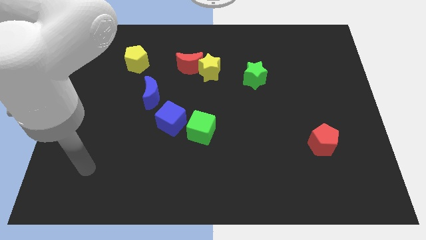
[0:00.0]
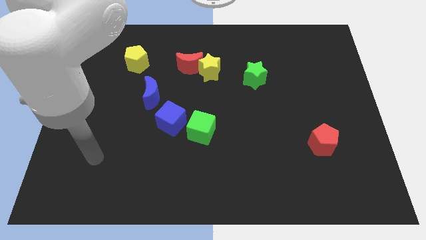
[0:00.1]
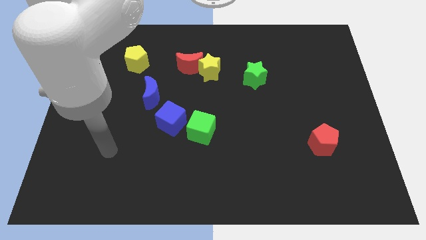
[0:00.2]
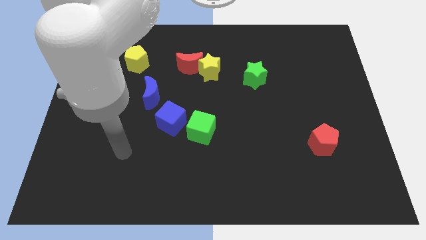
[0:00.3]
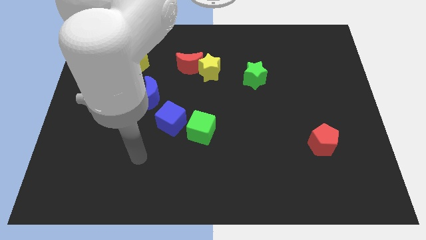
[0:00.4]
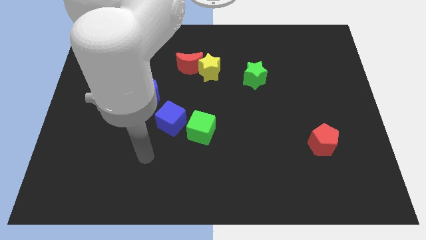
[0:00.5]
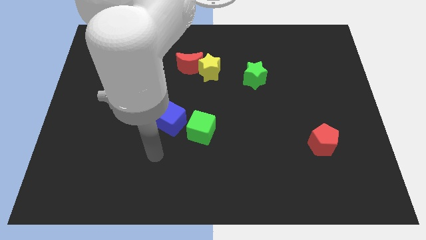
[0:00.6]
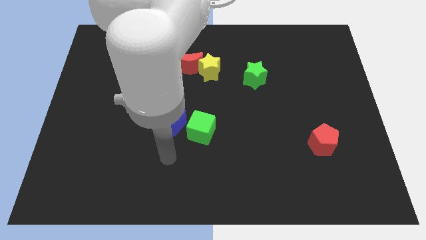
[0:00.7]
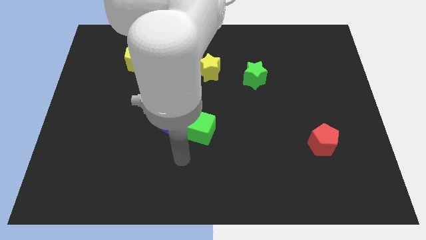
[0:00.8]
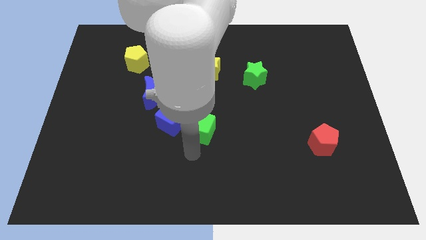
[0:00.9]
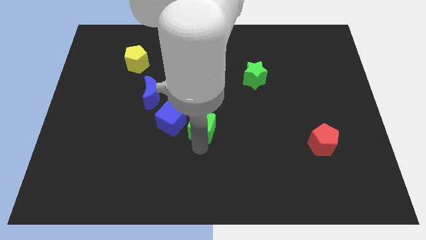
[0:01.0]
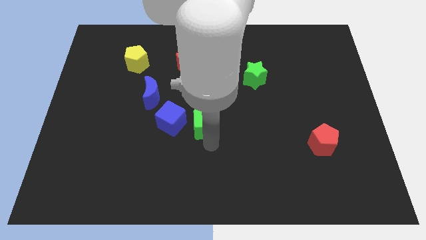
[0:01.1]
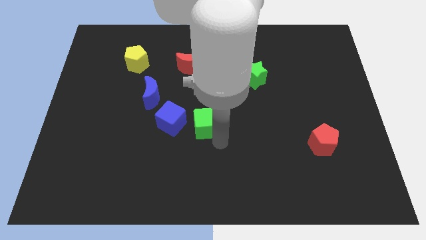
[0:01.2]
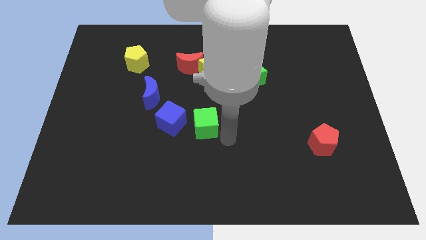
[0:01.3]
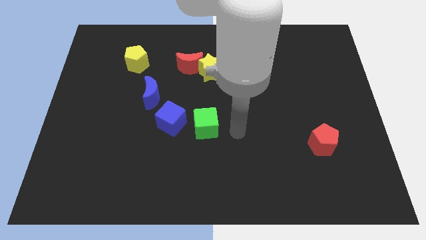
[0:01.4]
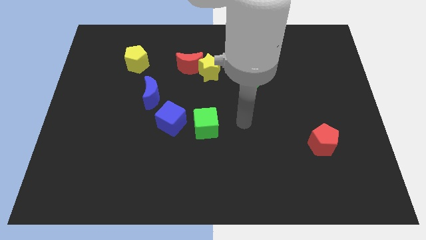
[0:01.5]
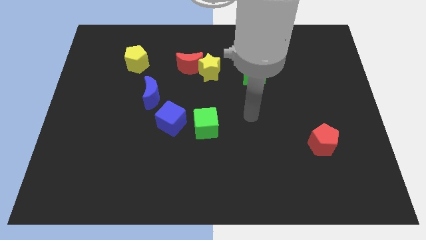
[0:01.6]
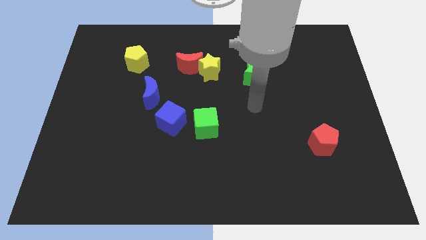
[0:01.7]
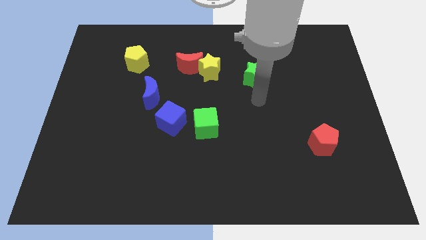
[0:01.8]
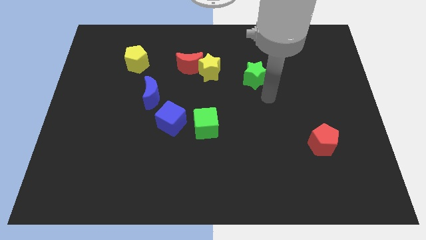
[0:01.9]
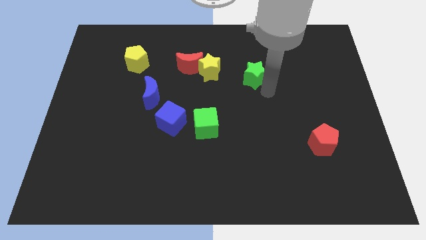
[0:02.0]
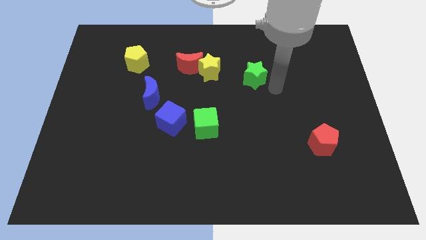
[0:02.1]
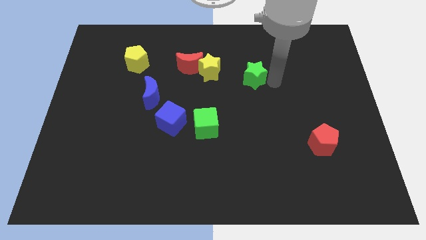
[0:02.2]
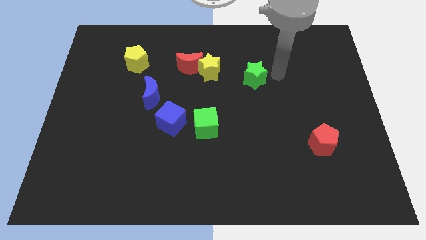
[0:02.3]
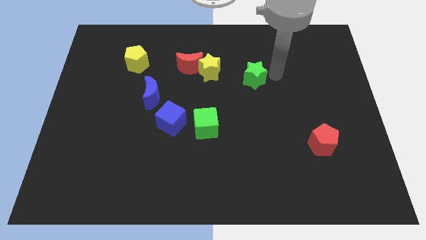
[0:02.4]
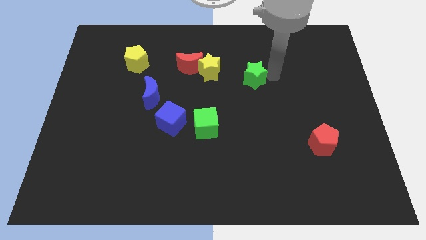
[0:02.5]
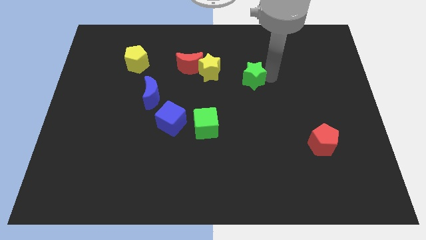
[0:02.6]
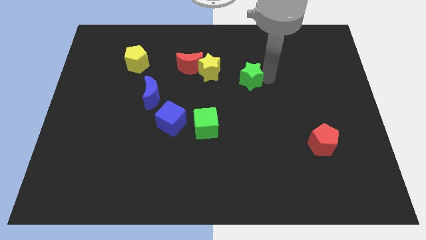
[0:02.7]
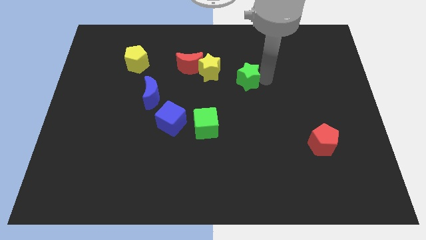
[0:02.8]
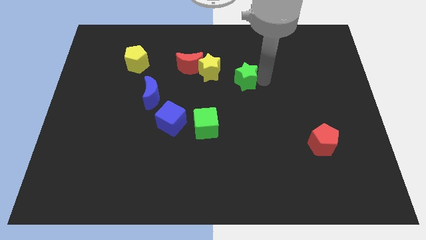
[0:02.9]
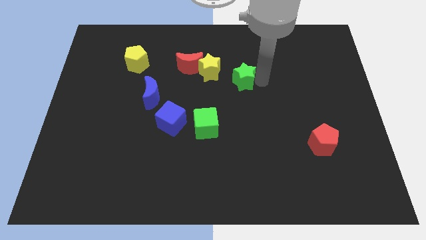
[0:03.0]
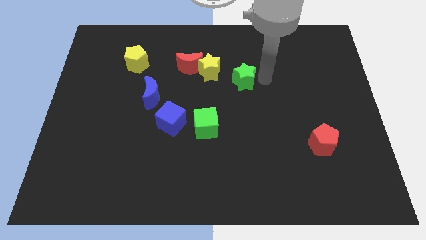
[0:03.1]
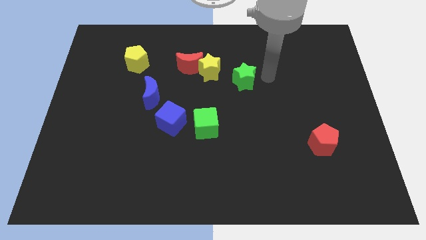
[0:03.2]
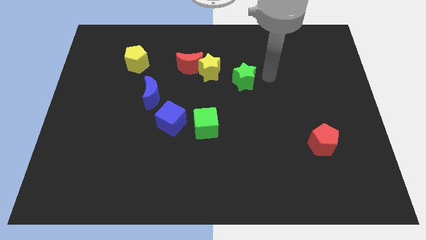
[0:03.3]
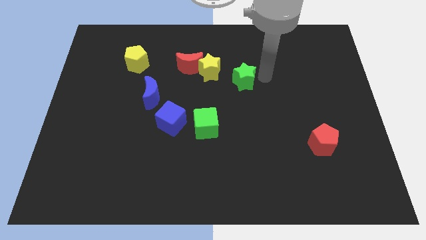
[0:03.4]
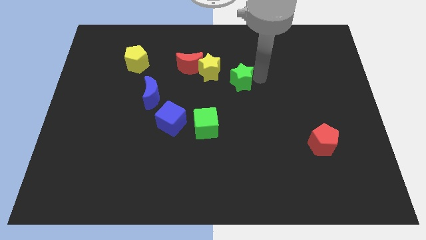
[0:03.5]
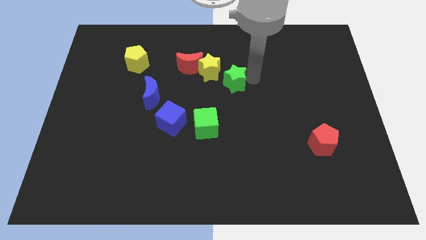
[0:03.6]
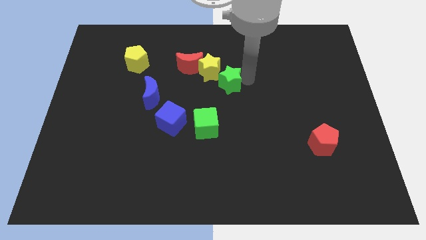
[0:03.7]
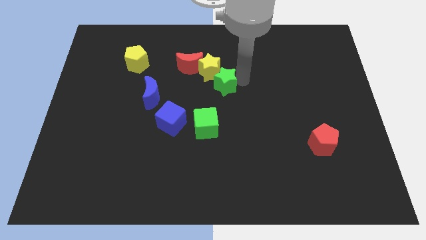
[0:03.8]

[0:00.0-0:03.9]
push the green star somewhat left

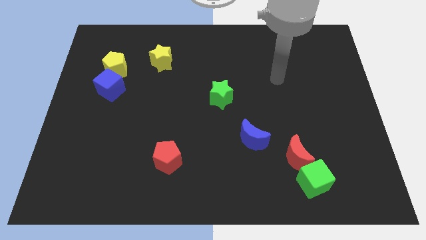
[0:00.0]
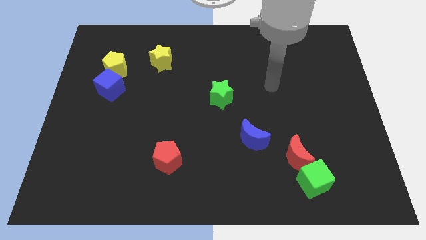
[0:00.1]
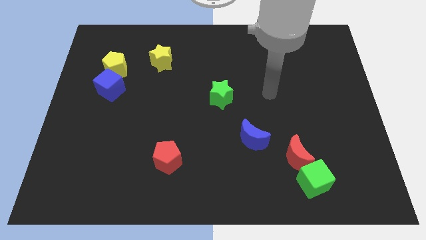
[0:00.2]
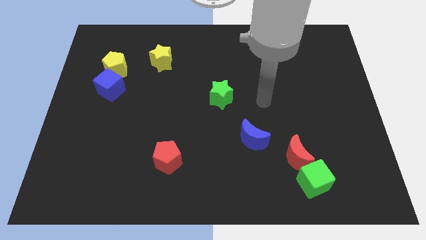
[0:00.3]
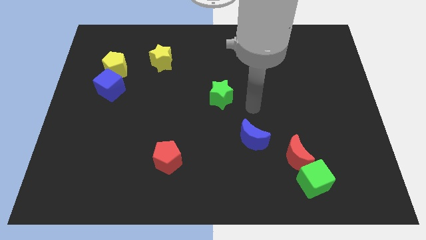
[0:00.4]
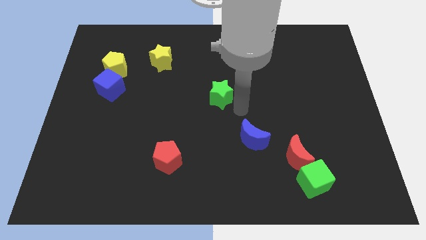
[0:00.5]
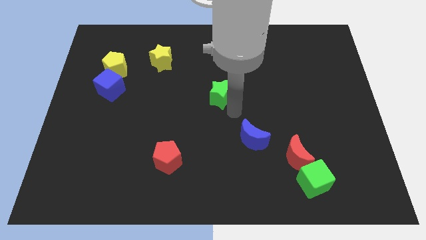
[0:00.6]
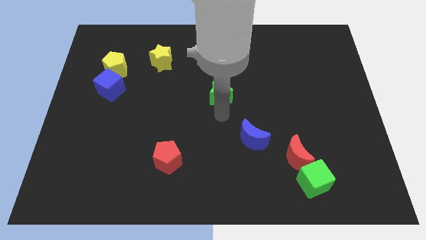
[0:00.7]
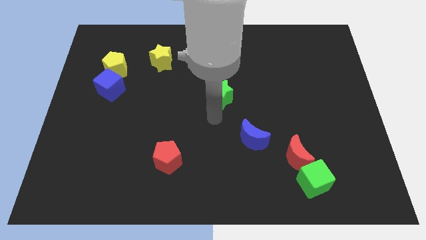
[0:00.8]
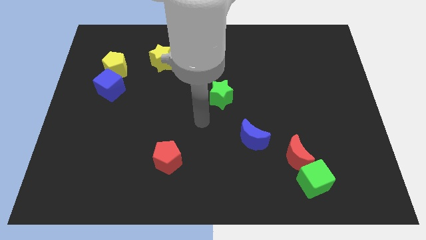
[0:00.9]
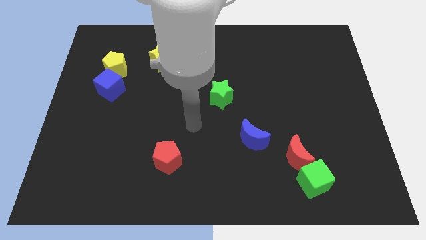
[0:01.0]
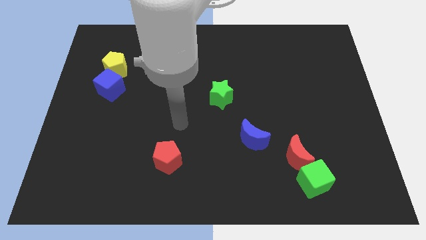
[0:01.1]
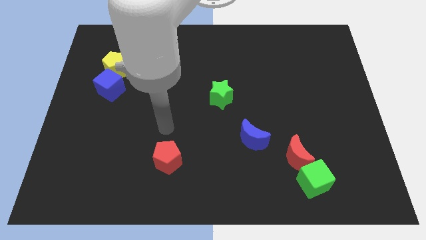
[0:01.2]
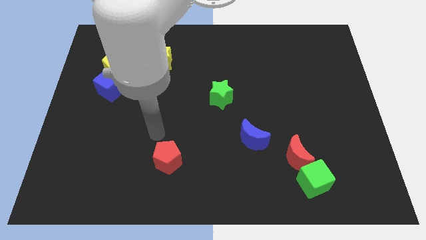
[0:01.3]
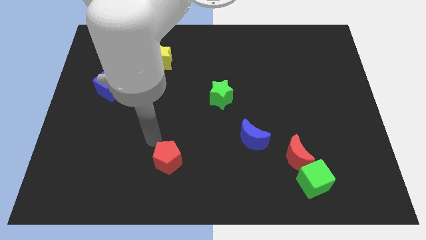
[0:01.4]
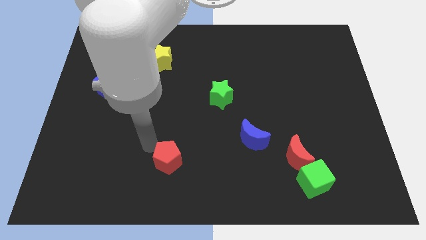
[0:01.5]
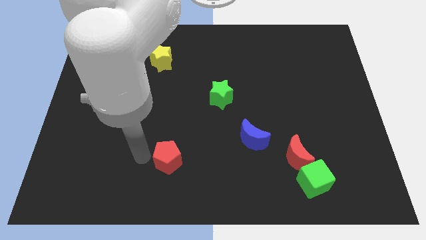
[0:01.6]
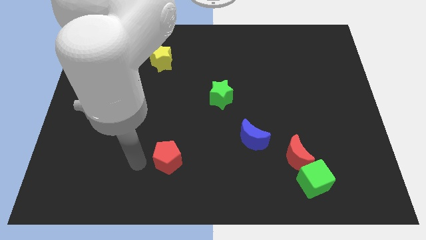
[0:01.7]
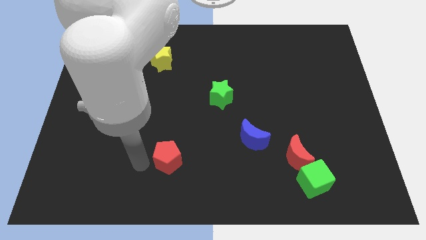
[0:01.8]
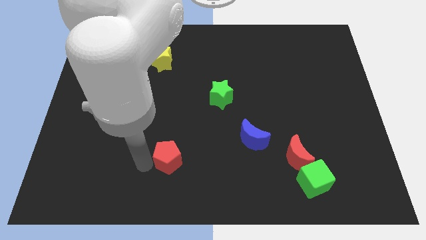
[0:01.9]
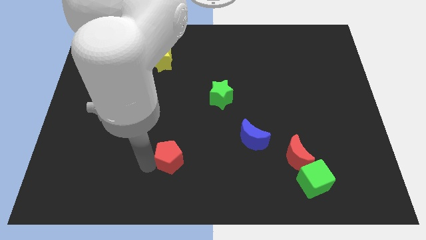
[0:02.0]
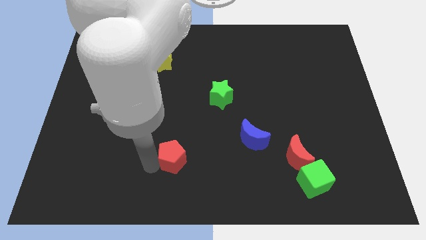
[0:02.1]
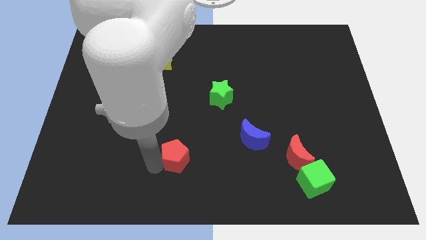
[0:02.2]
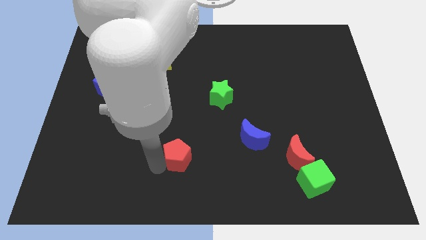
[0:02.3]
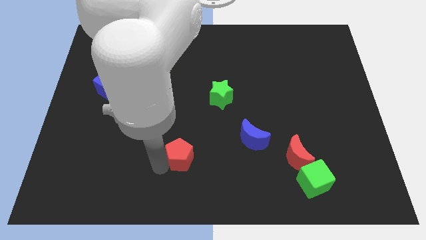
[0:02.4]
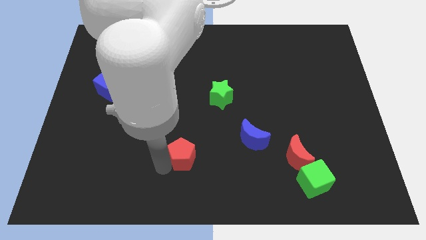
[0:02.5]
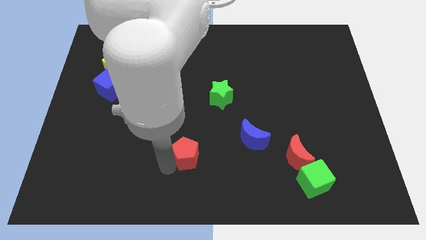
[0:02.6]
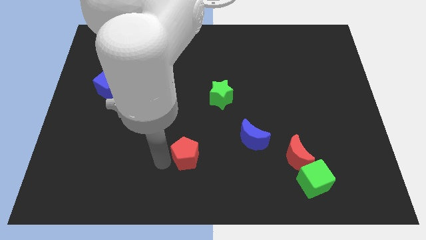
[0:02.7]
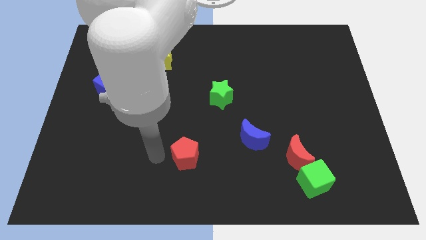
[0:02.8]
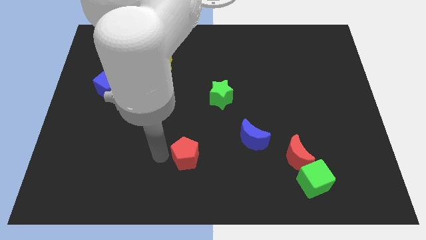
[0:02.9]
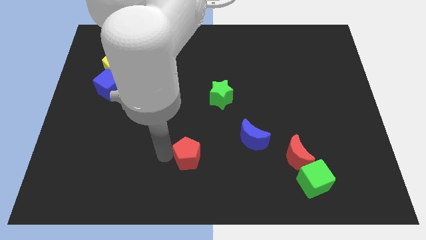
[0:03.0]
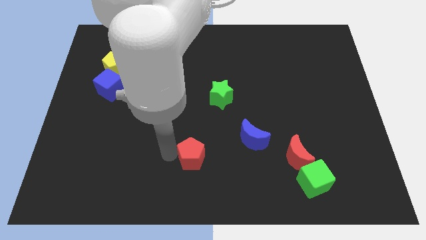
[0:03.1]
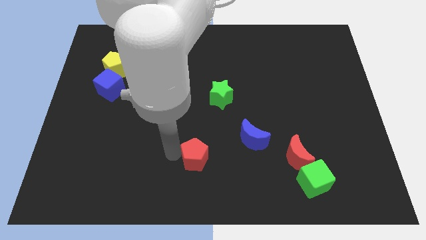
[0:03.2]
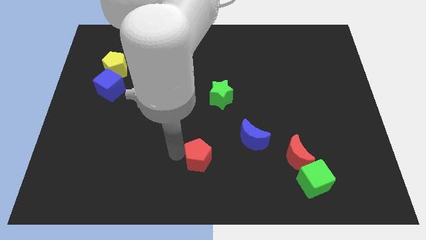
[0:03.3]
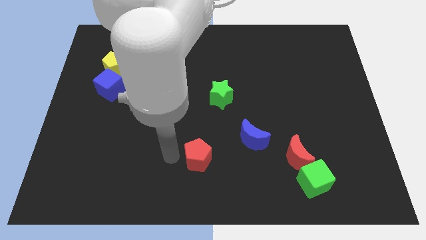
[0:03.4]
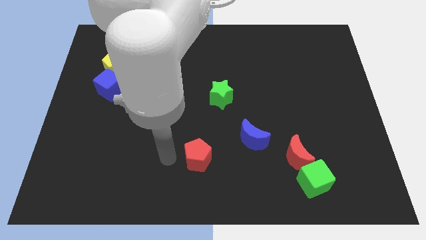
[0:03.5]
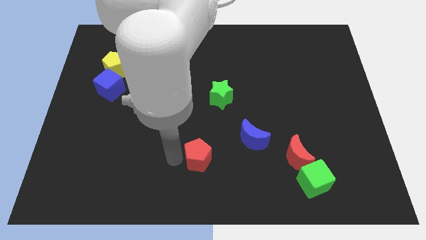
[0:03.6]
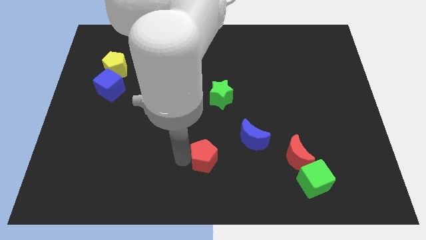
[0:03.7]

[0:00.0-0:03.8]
slide the red pentagon slightly to the right

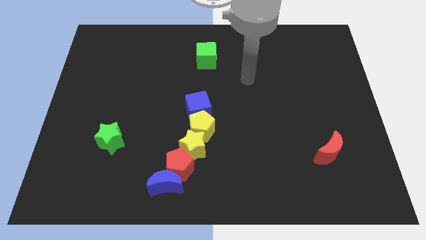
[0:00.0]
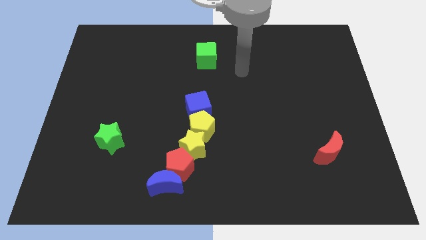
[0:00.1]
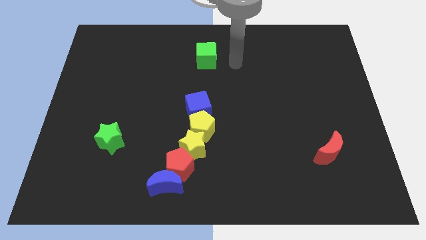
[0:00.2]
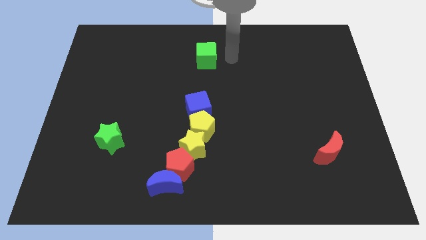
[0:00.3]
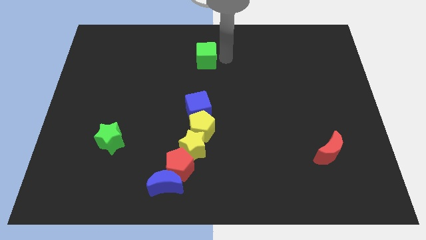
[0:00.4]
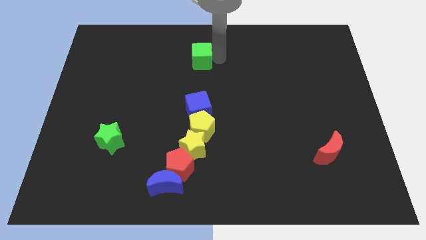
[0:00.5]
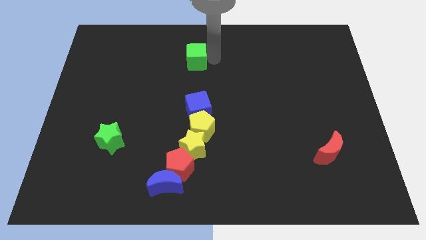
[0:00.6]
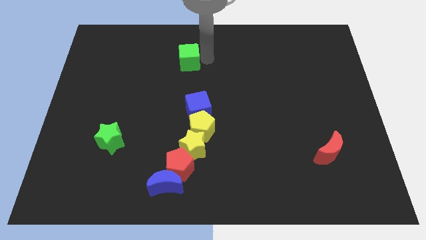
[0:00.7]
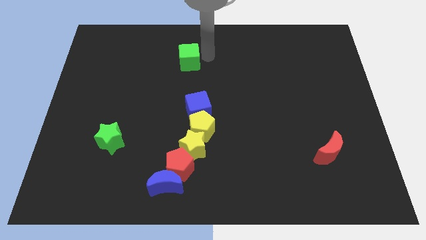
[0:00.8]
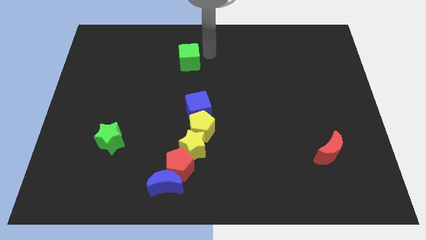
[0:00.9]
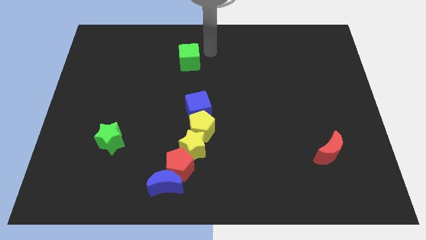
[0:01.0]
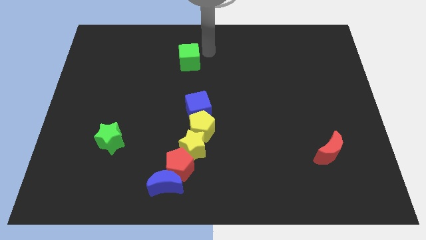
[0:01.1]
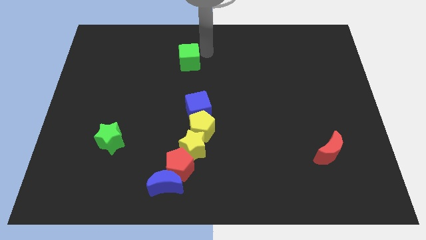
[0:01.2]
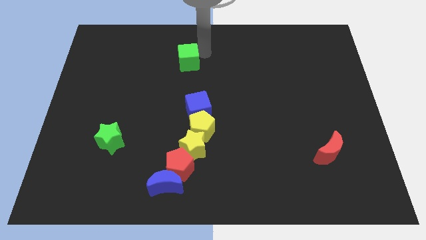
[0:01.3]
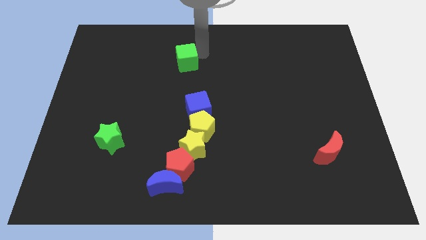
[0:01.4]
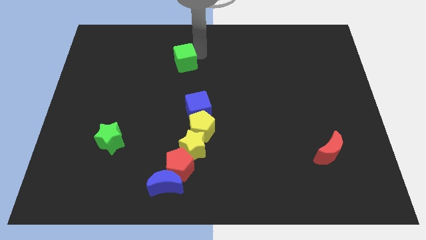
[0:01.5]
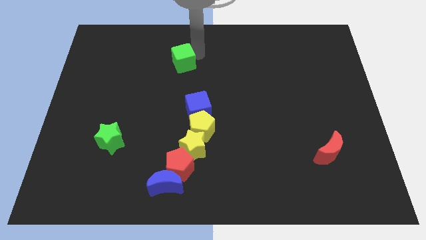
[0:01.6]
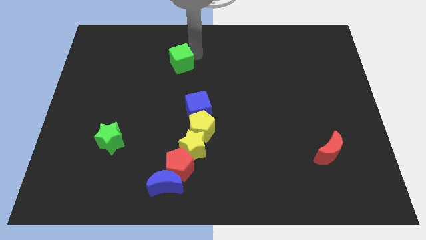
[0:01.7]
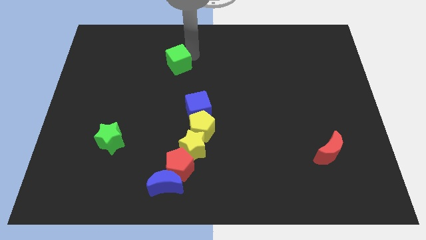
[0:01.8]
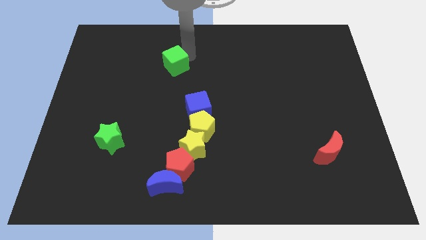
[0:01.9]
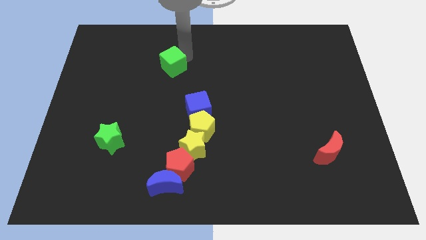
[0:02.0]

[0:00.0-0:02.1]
push the green cube a bit downwards and then left
